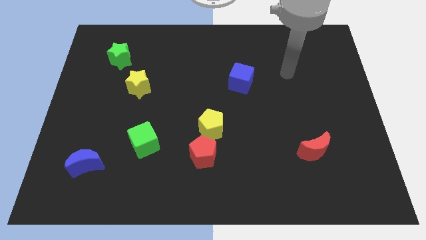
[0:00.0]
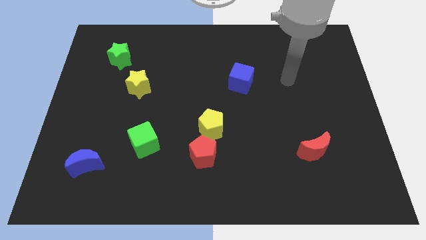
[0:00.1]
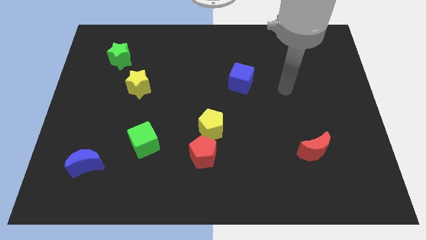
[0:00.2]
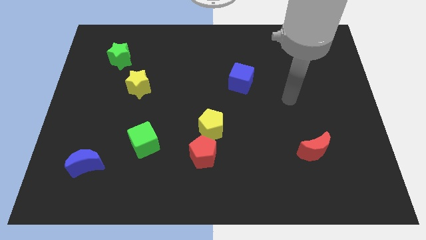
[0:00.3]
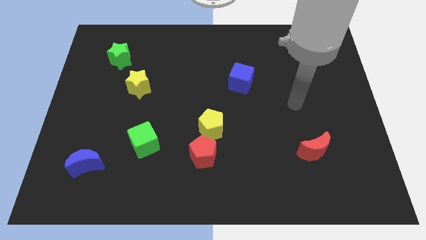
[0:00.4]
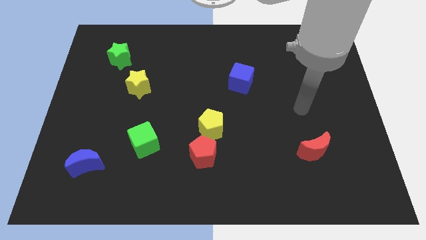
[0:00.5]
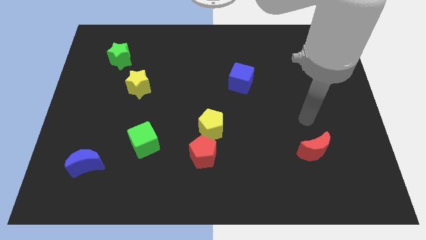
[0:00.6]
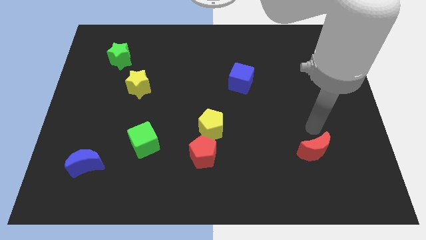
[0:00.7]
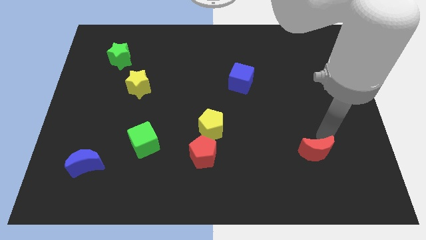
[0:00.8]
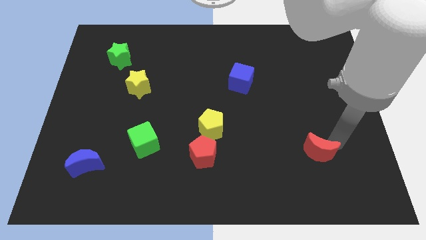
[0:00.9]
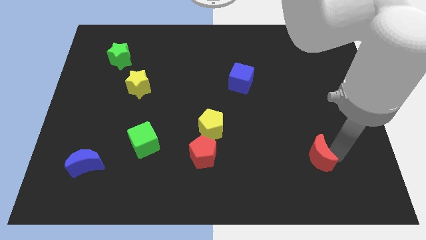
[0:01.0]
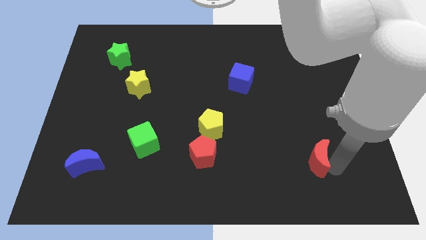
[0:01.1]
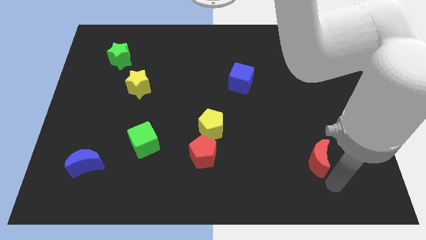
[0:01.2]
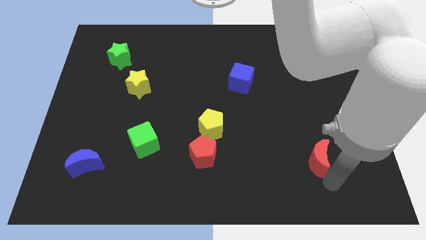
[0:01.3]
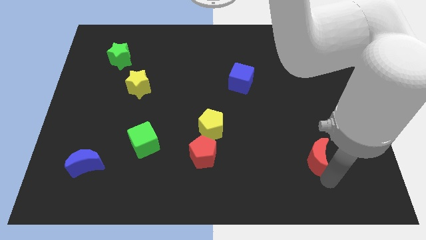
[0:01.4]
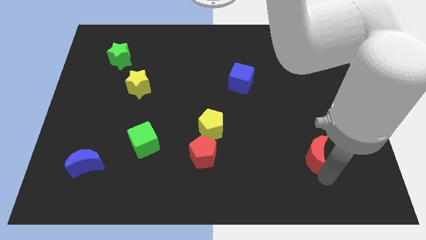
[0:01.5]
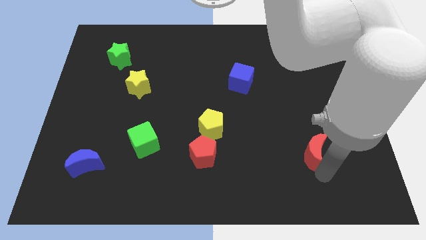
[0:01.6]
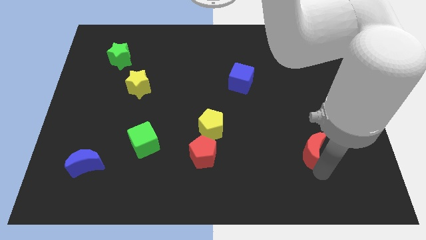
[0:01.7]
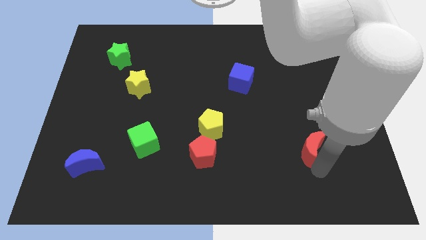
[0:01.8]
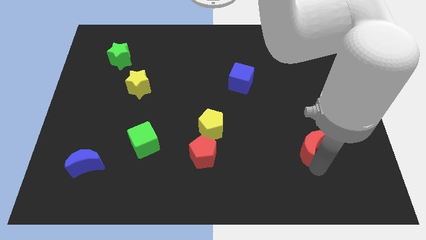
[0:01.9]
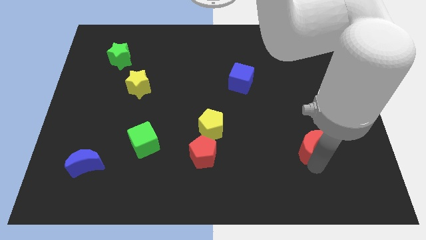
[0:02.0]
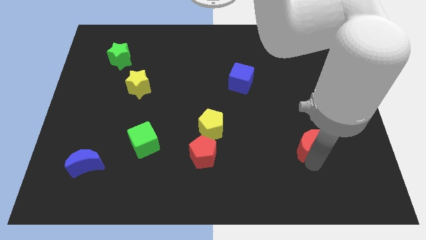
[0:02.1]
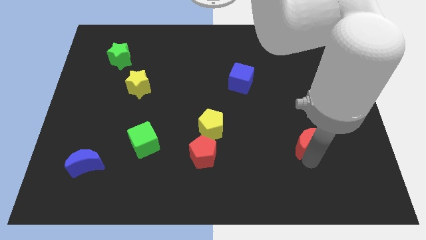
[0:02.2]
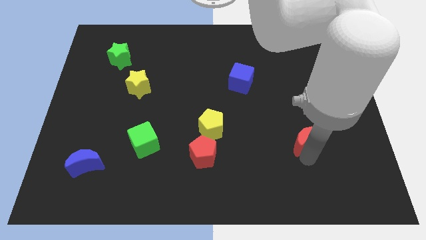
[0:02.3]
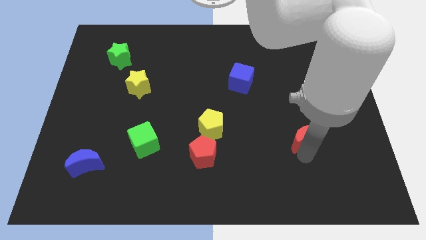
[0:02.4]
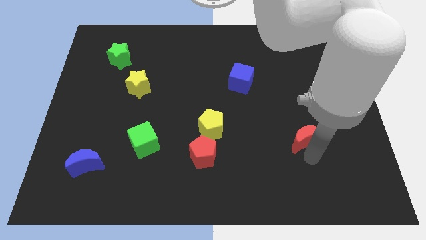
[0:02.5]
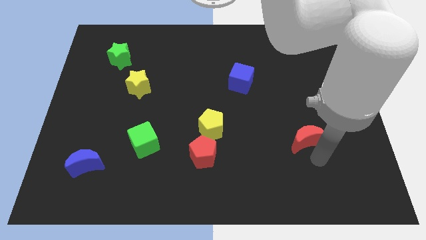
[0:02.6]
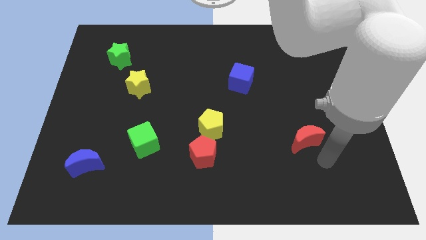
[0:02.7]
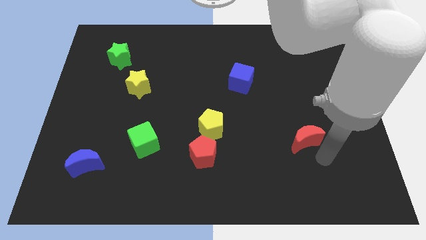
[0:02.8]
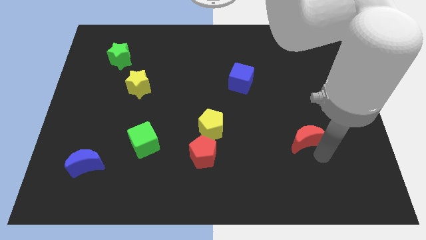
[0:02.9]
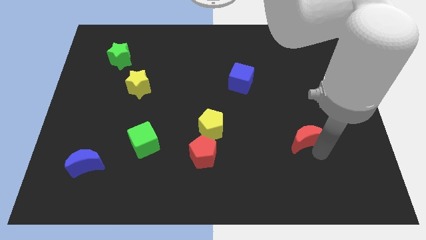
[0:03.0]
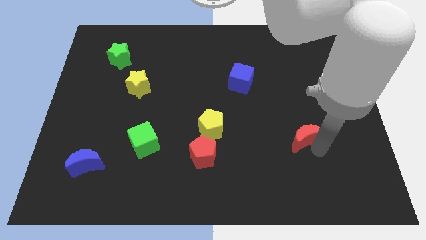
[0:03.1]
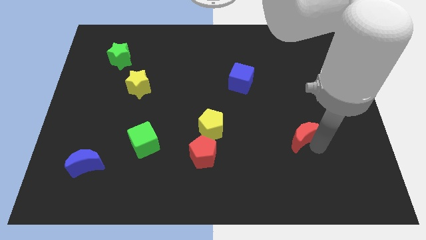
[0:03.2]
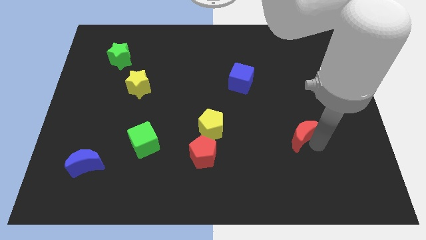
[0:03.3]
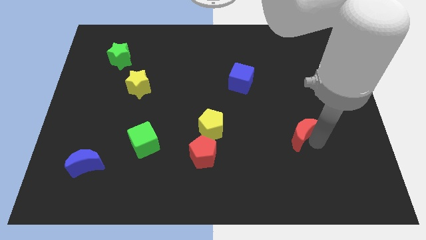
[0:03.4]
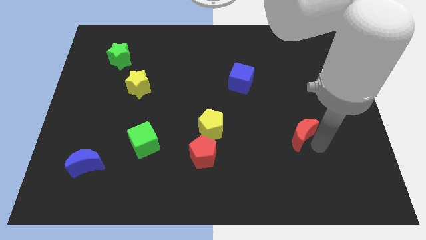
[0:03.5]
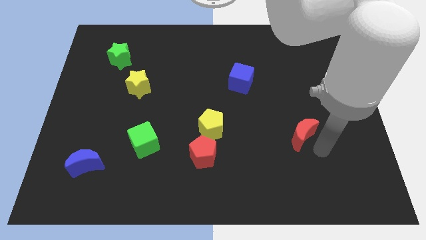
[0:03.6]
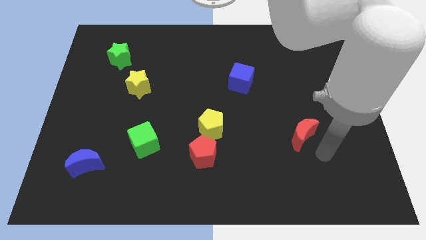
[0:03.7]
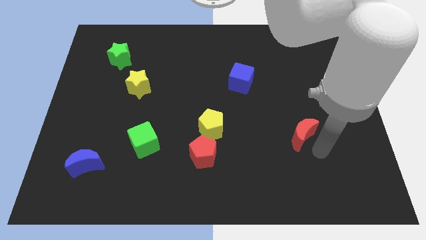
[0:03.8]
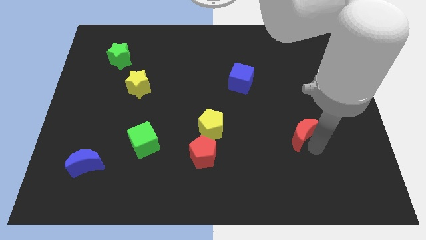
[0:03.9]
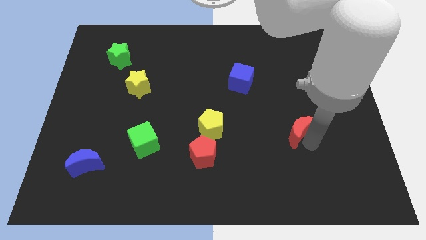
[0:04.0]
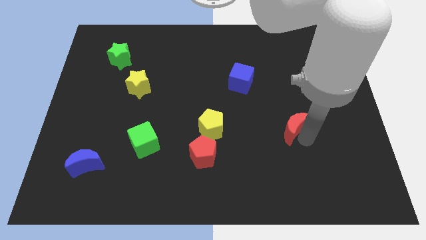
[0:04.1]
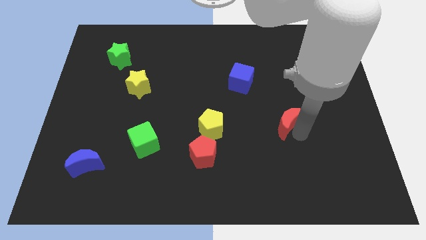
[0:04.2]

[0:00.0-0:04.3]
move the red moon a little bit up and left diagonally

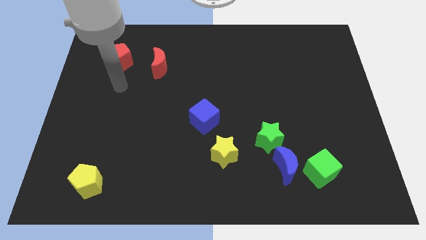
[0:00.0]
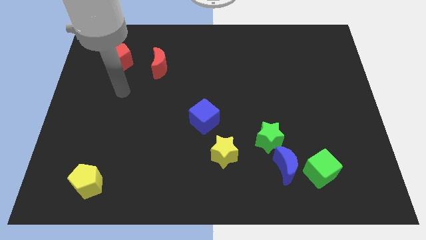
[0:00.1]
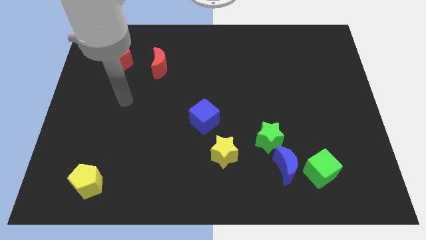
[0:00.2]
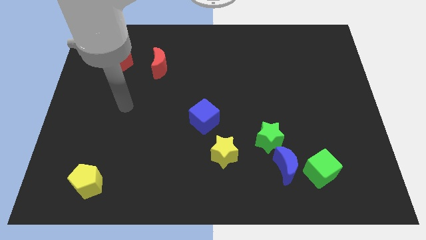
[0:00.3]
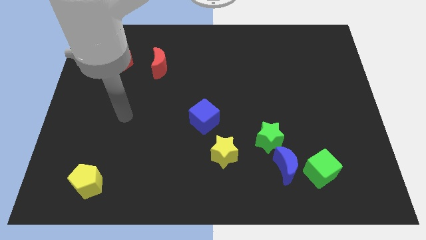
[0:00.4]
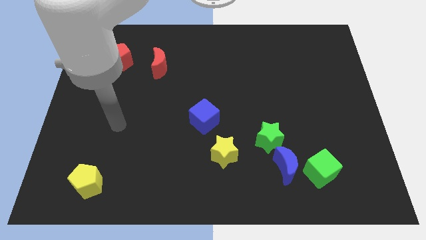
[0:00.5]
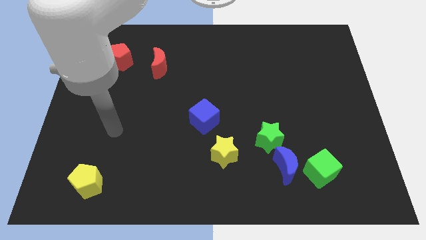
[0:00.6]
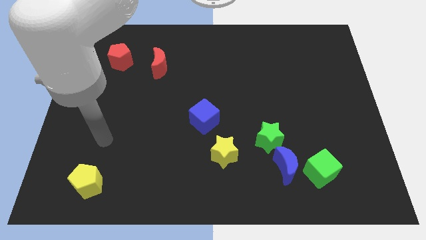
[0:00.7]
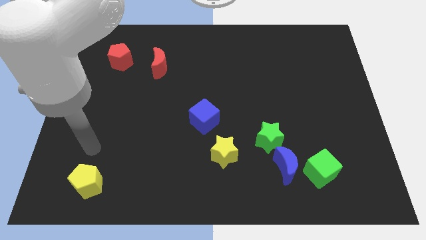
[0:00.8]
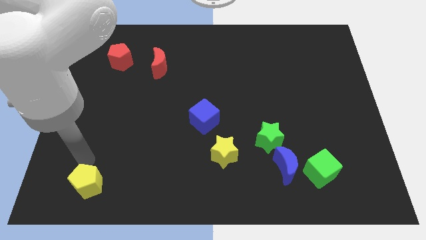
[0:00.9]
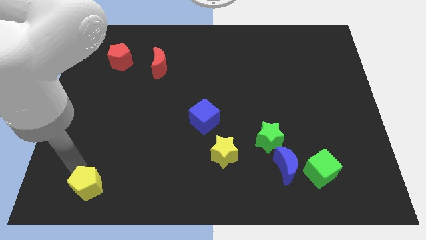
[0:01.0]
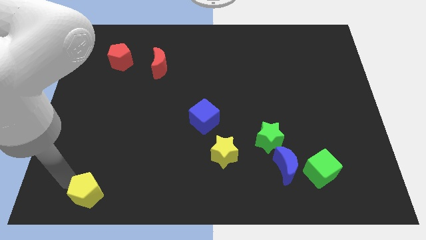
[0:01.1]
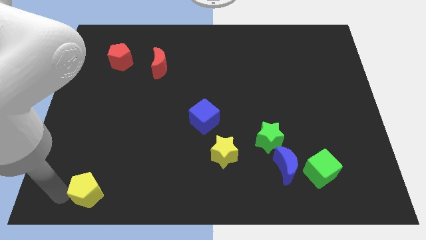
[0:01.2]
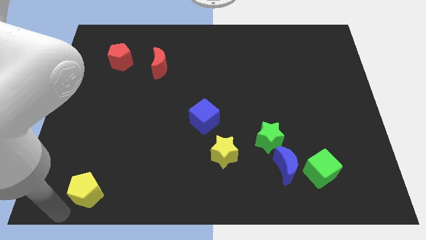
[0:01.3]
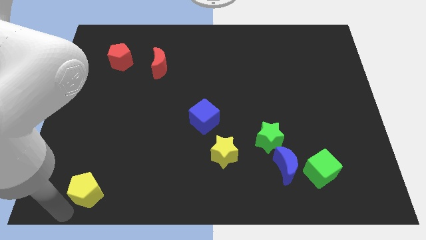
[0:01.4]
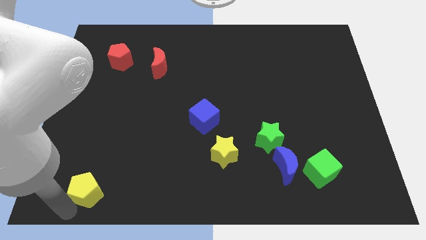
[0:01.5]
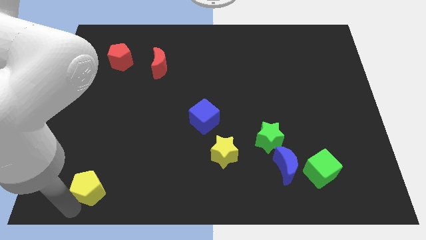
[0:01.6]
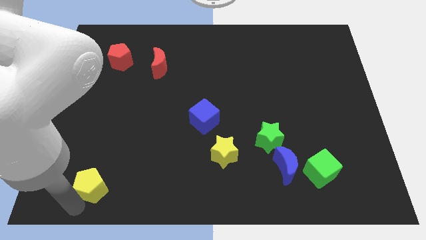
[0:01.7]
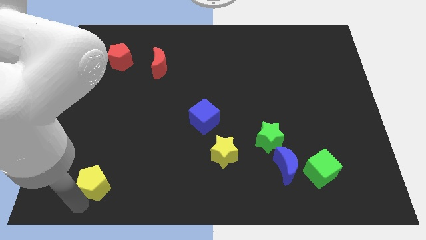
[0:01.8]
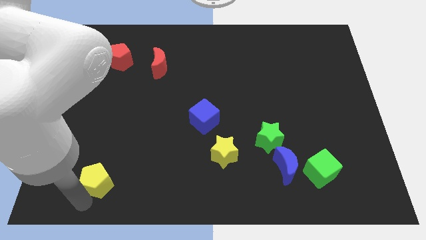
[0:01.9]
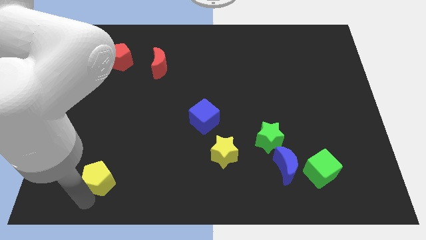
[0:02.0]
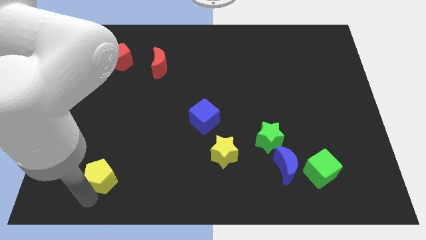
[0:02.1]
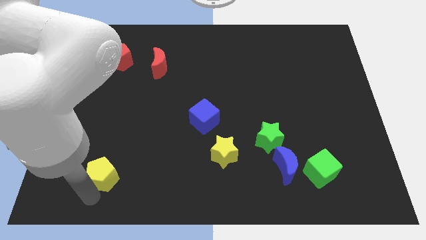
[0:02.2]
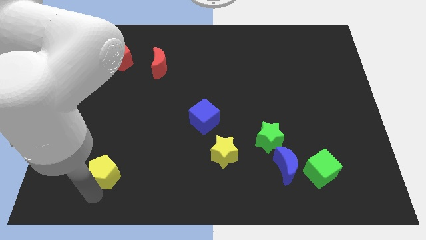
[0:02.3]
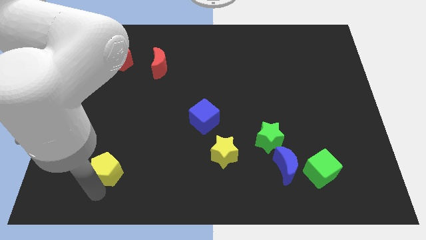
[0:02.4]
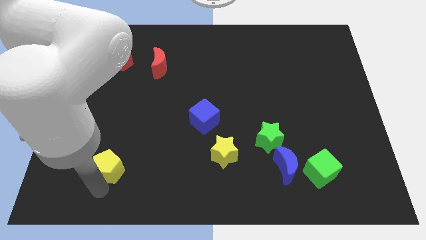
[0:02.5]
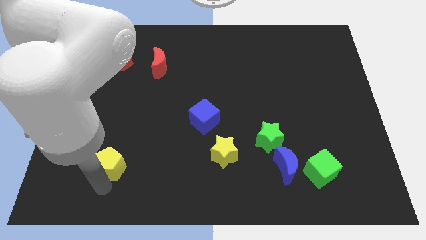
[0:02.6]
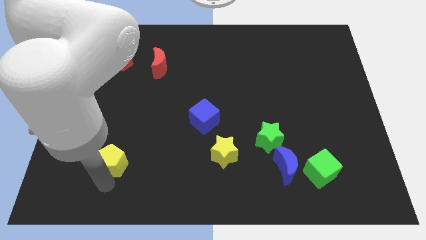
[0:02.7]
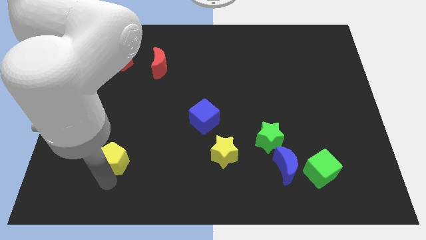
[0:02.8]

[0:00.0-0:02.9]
move the yellow pentagon somewhat diagonally upwards and right

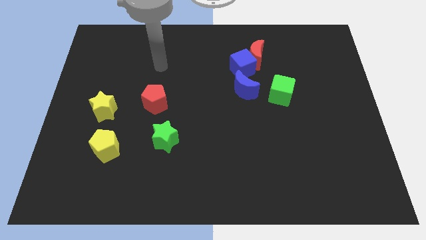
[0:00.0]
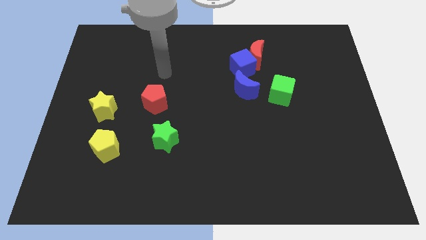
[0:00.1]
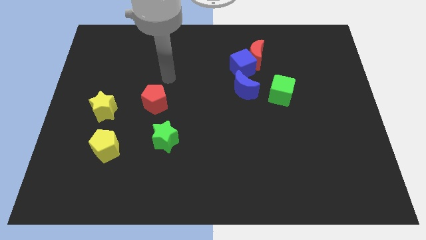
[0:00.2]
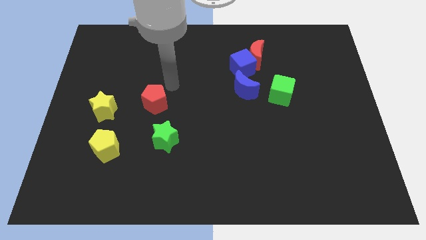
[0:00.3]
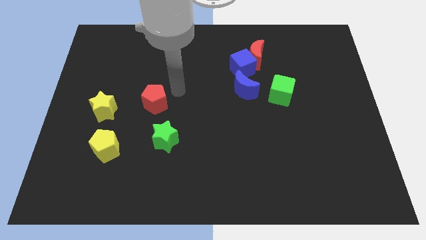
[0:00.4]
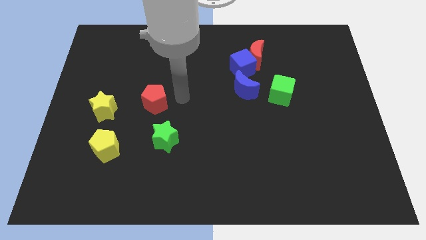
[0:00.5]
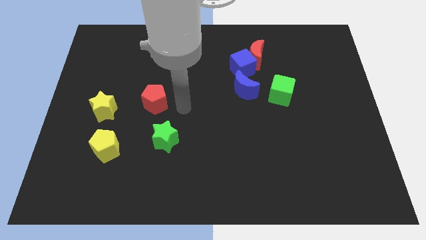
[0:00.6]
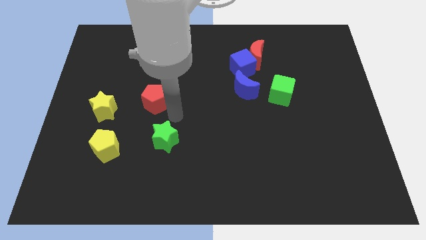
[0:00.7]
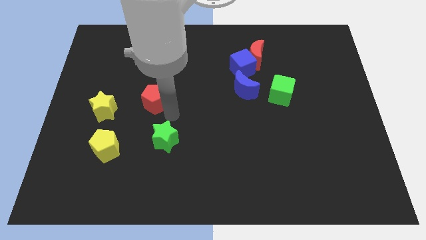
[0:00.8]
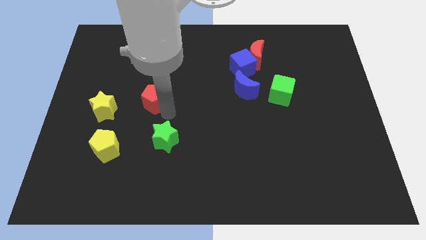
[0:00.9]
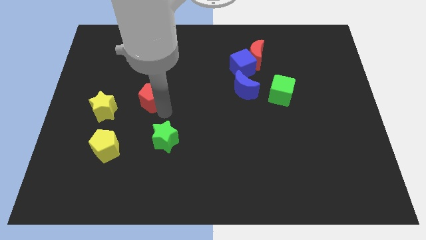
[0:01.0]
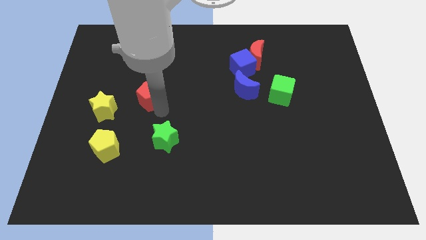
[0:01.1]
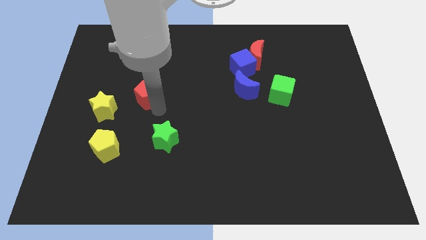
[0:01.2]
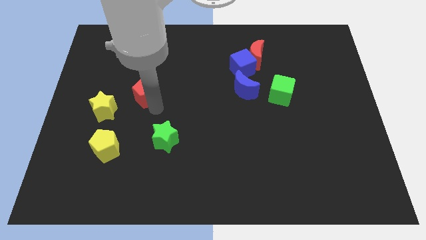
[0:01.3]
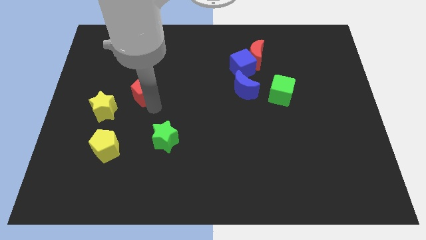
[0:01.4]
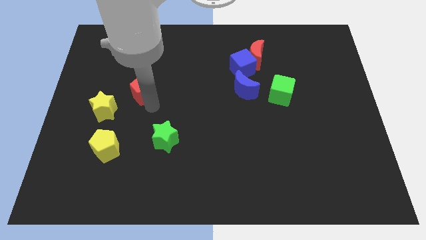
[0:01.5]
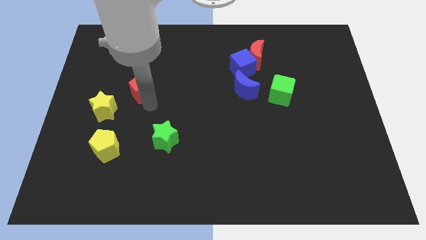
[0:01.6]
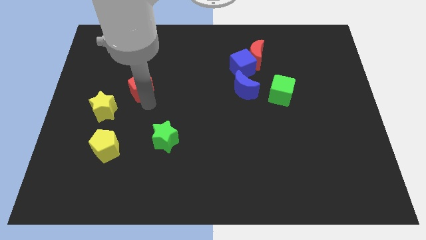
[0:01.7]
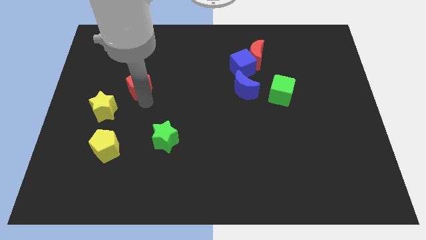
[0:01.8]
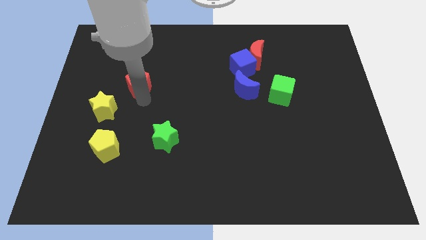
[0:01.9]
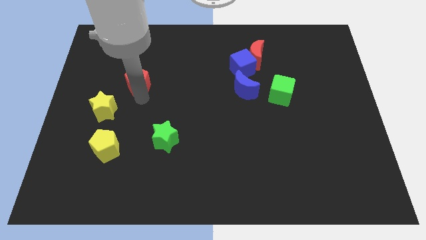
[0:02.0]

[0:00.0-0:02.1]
move the red pentagon a little up and to the left diagonally
